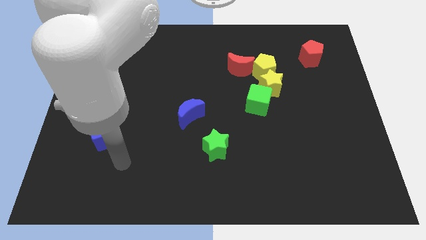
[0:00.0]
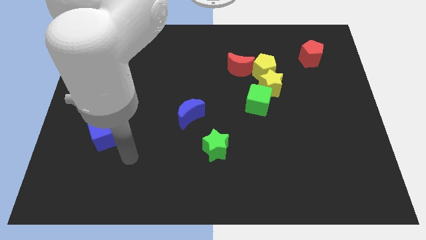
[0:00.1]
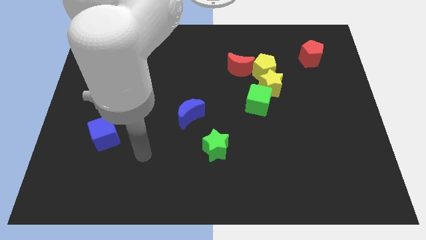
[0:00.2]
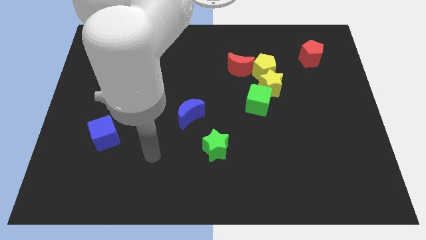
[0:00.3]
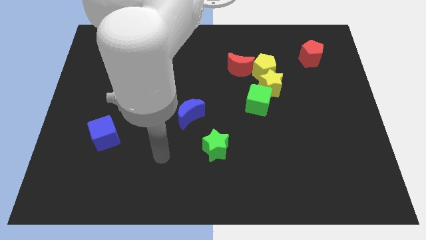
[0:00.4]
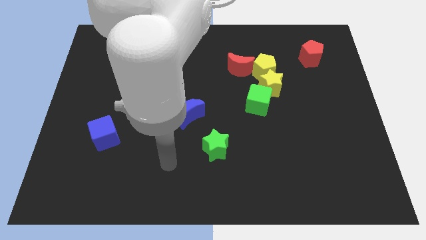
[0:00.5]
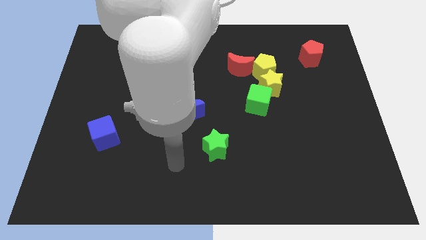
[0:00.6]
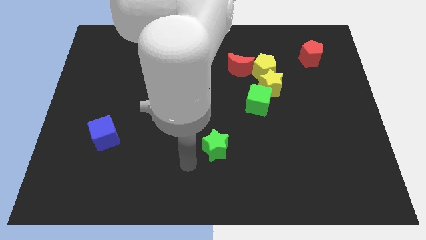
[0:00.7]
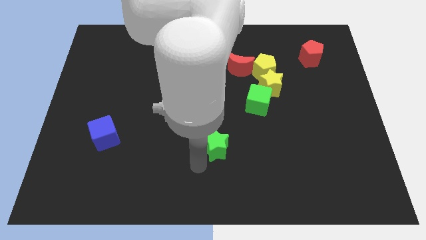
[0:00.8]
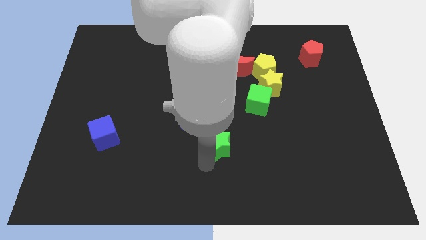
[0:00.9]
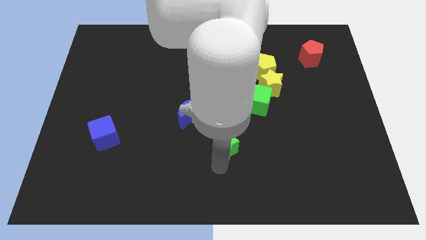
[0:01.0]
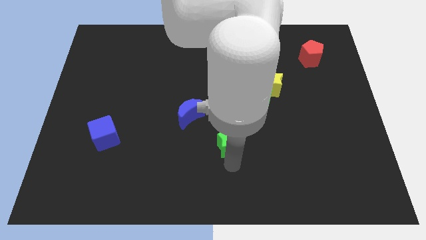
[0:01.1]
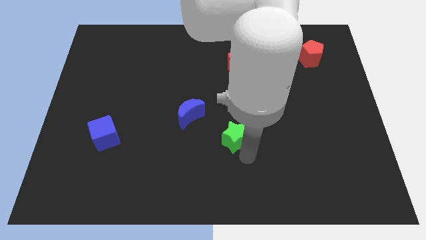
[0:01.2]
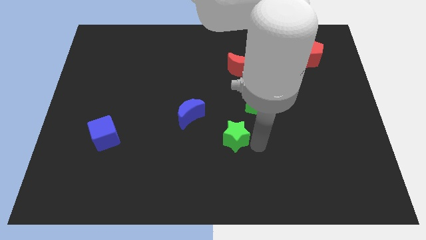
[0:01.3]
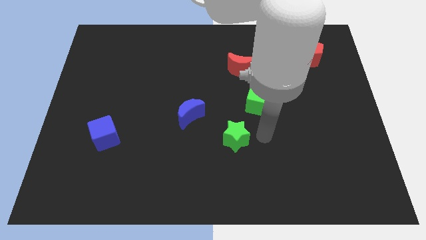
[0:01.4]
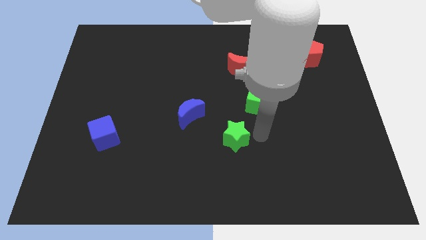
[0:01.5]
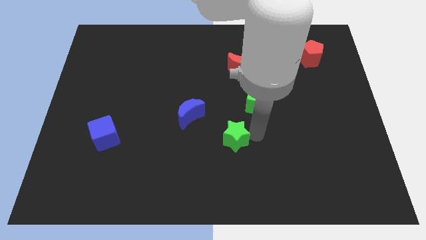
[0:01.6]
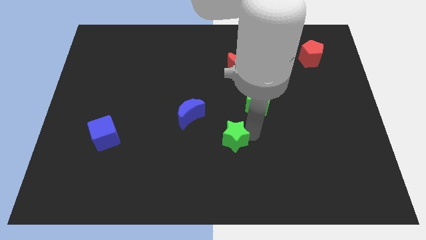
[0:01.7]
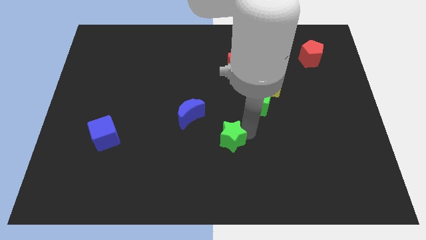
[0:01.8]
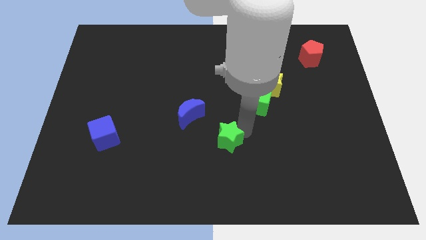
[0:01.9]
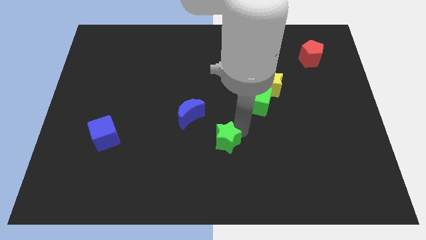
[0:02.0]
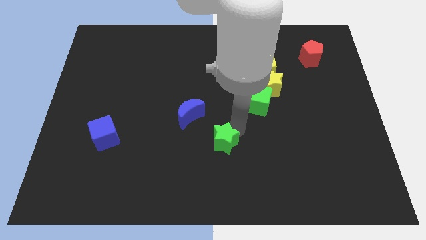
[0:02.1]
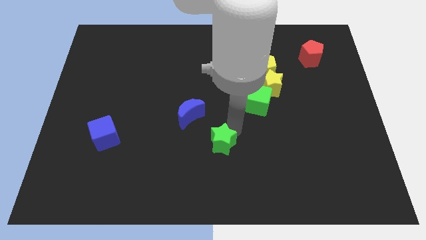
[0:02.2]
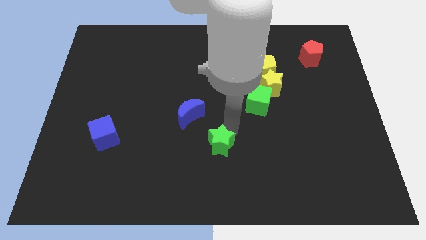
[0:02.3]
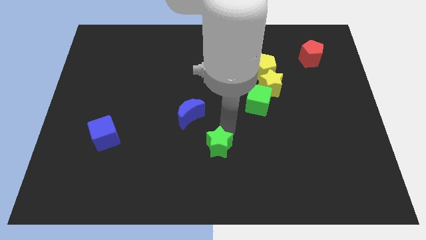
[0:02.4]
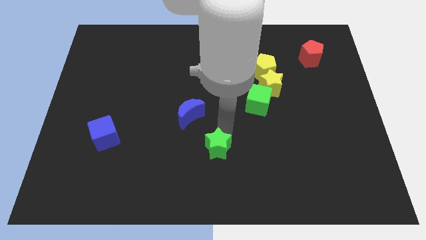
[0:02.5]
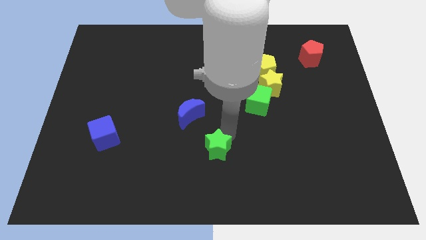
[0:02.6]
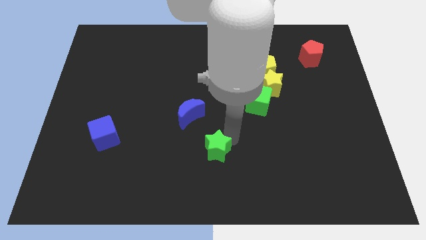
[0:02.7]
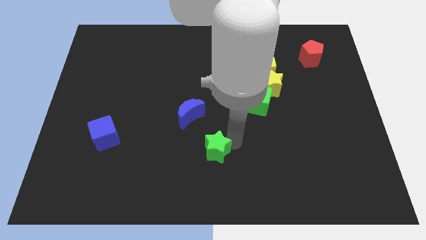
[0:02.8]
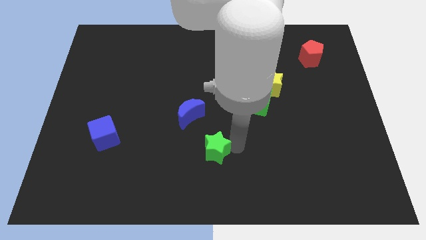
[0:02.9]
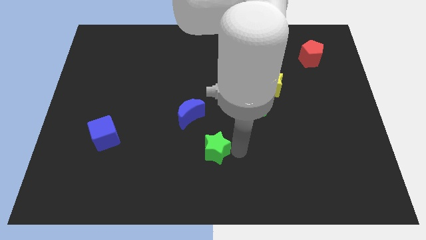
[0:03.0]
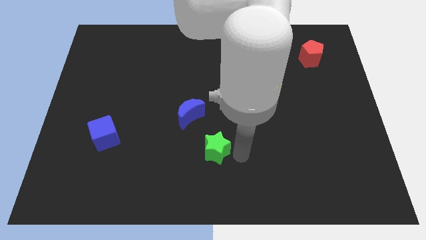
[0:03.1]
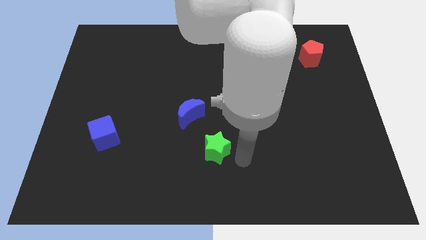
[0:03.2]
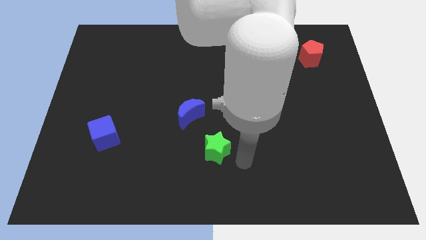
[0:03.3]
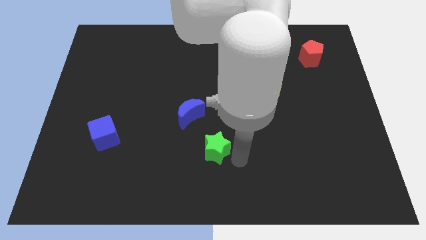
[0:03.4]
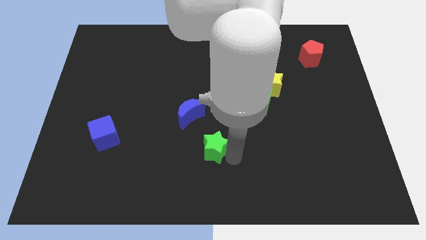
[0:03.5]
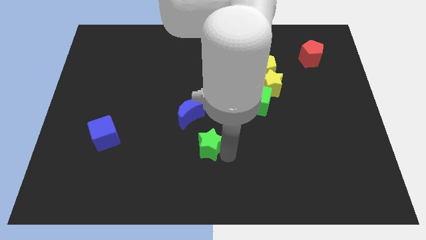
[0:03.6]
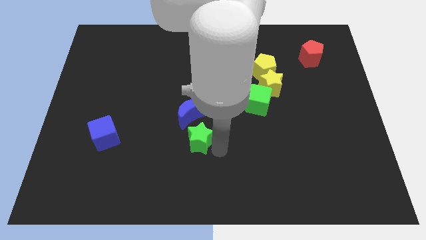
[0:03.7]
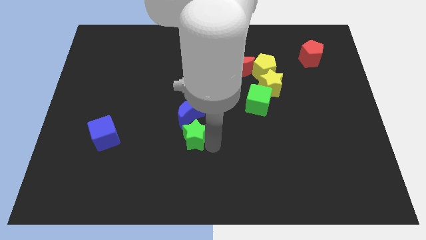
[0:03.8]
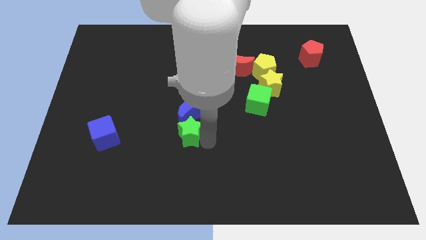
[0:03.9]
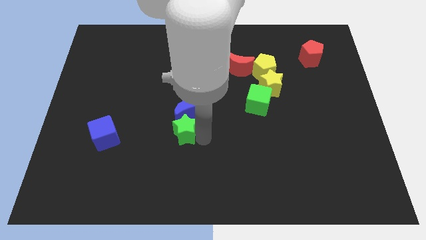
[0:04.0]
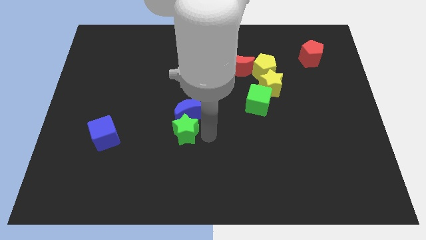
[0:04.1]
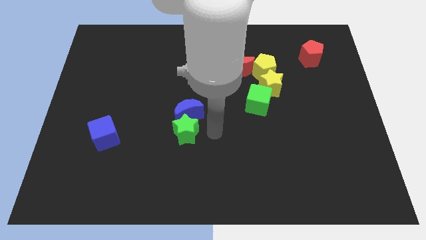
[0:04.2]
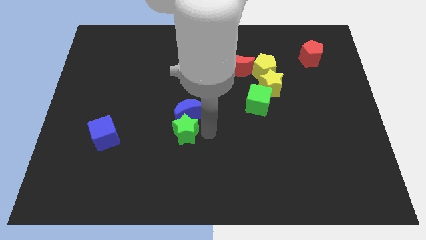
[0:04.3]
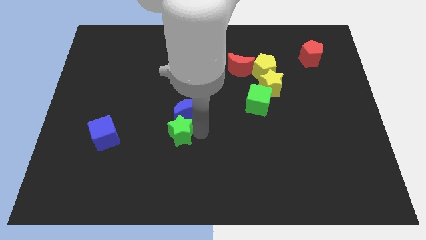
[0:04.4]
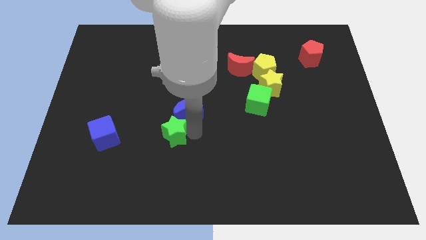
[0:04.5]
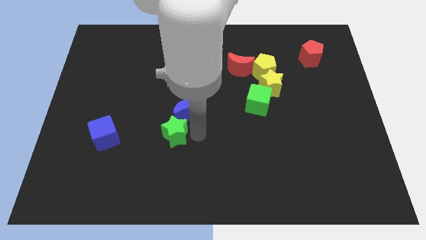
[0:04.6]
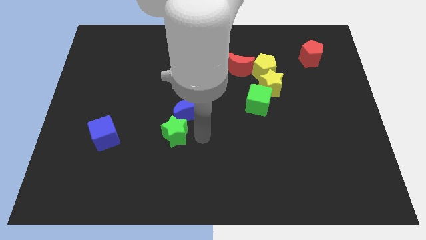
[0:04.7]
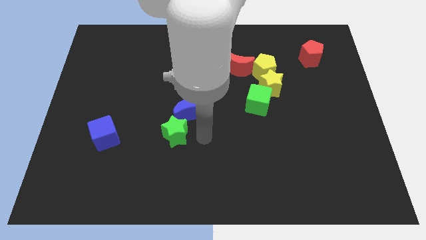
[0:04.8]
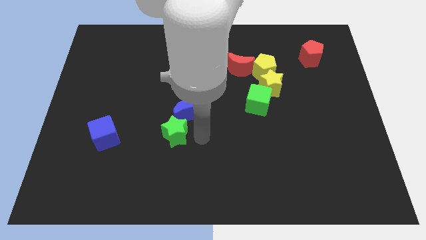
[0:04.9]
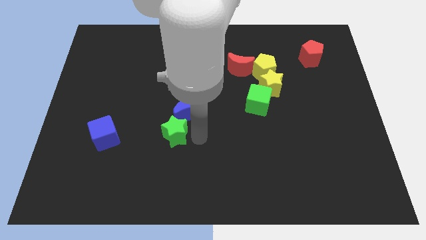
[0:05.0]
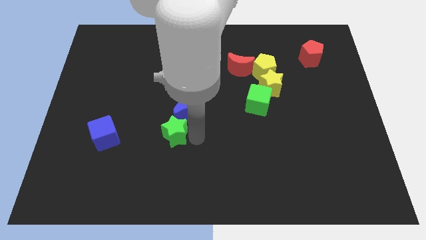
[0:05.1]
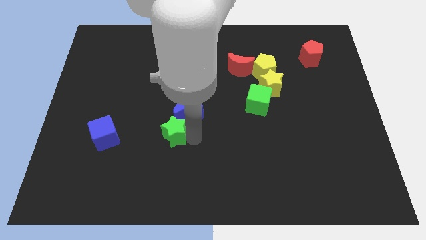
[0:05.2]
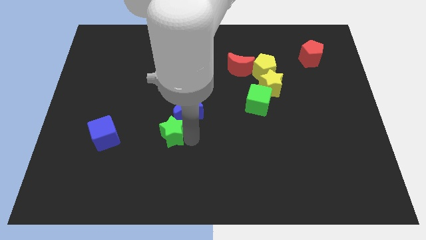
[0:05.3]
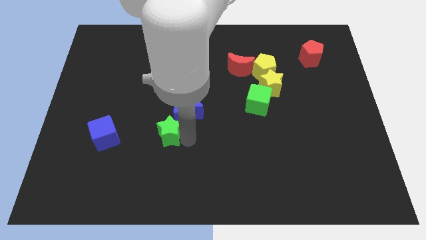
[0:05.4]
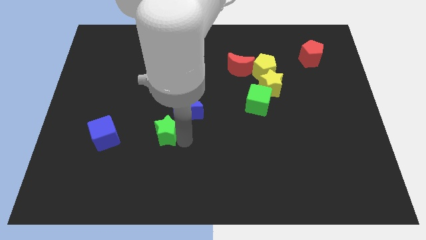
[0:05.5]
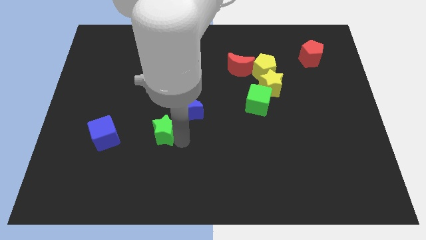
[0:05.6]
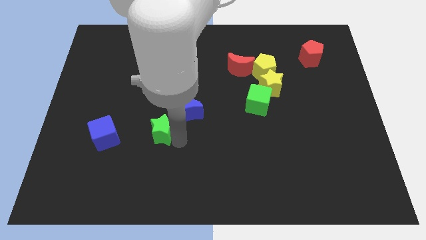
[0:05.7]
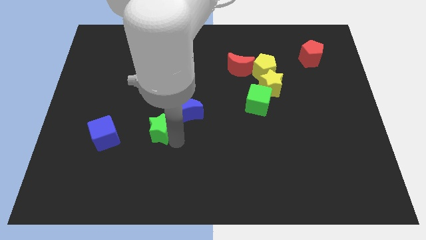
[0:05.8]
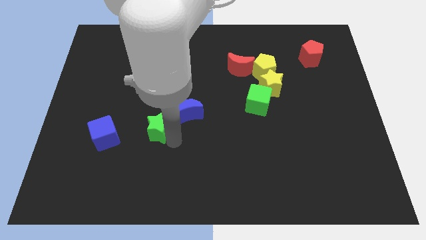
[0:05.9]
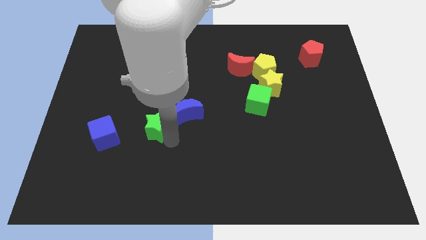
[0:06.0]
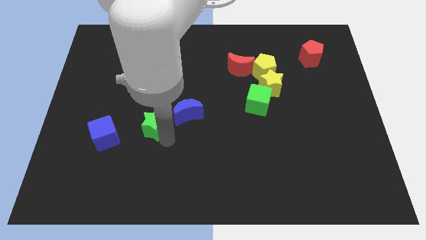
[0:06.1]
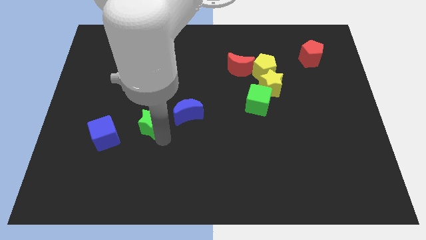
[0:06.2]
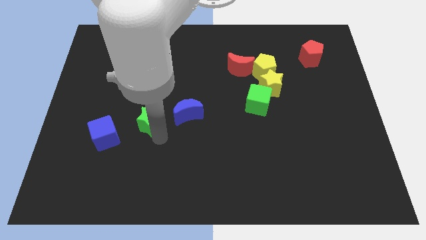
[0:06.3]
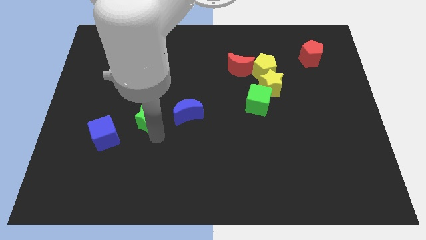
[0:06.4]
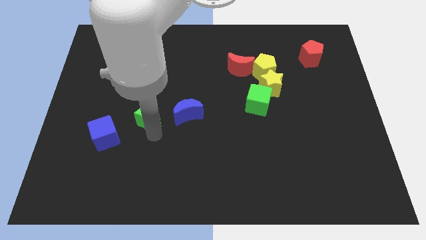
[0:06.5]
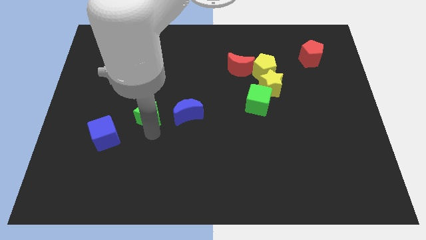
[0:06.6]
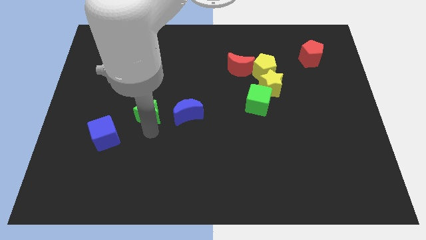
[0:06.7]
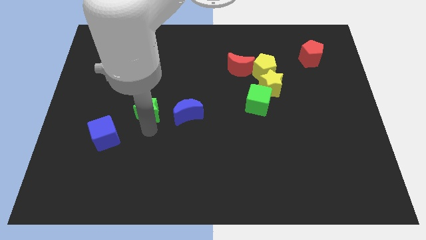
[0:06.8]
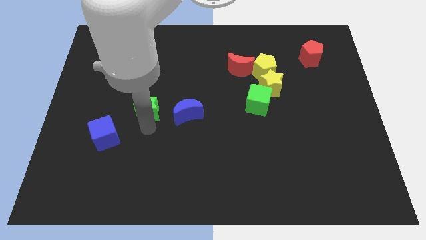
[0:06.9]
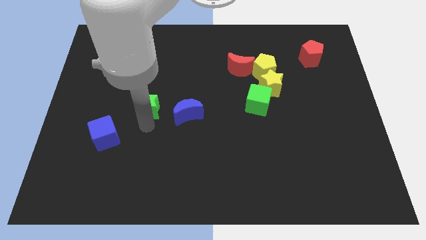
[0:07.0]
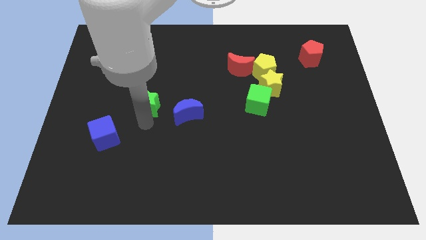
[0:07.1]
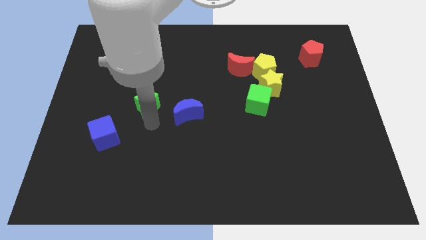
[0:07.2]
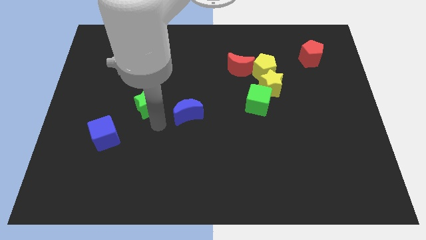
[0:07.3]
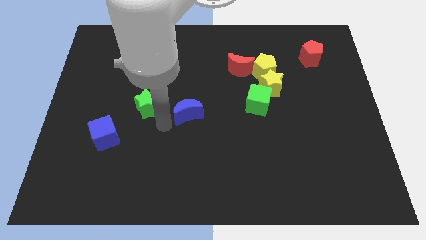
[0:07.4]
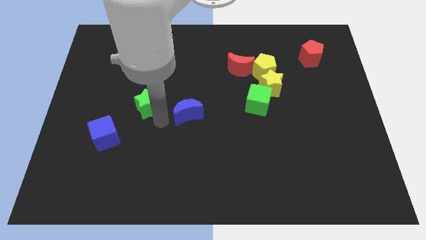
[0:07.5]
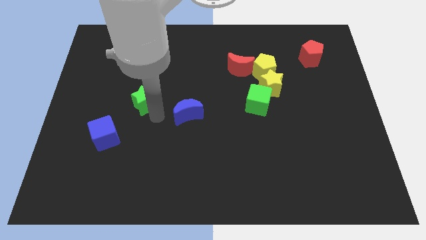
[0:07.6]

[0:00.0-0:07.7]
move the green star up and then to the left

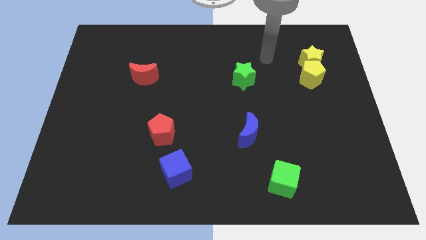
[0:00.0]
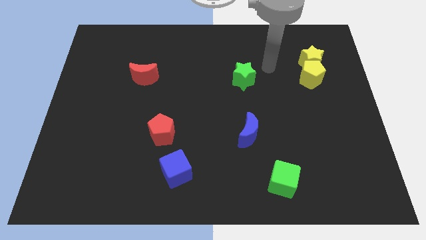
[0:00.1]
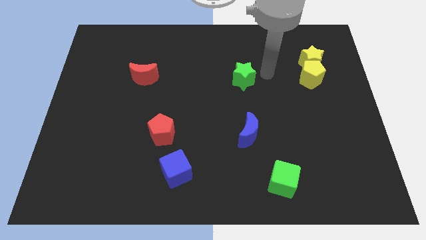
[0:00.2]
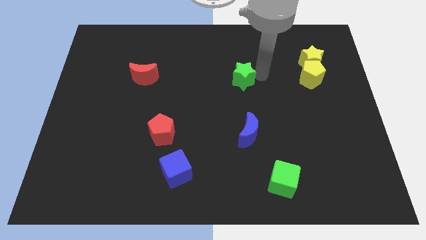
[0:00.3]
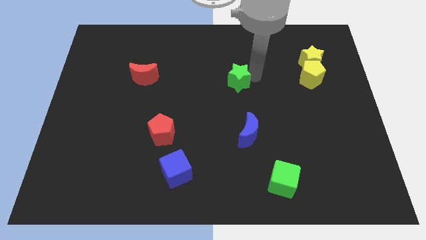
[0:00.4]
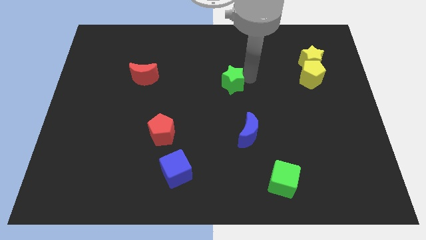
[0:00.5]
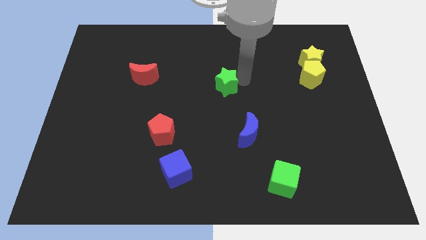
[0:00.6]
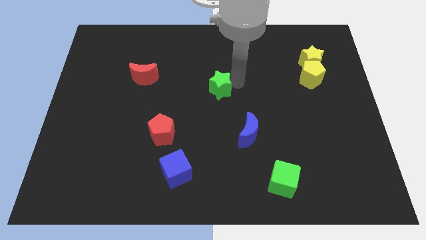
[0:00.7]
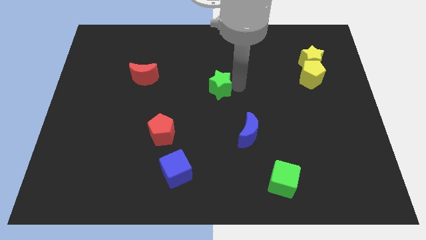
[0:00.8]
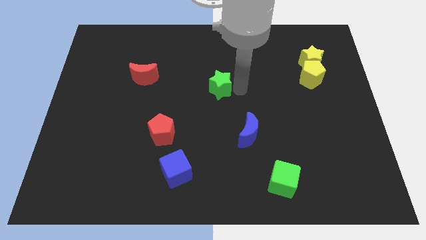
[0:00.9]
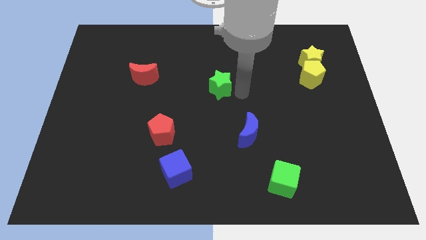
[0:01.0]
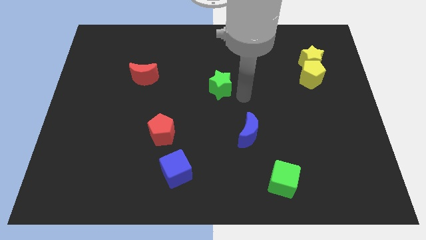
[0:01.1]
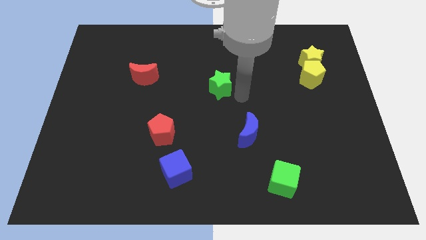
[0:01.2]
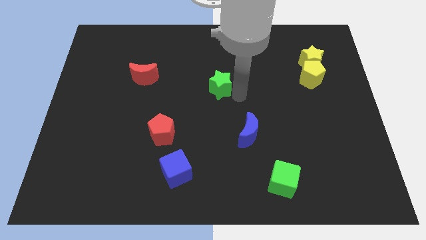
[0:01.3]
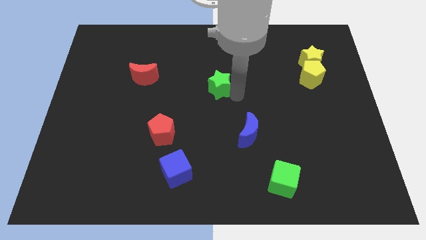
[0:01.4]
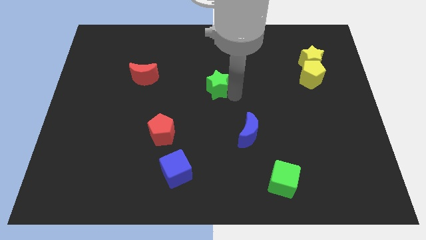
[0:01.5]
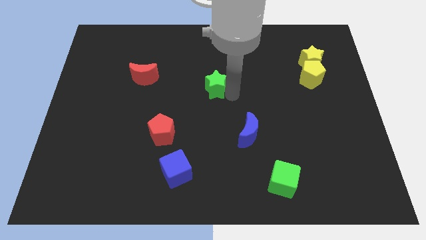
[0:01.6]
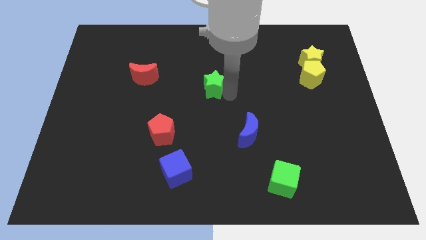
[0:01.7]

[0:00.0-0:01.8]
slightly slide the green star left
